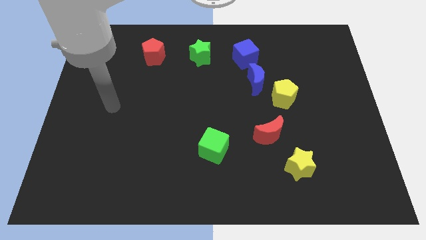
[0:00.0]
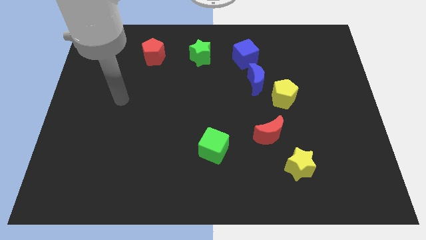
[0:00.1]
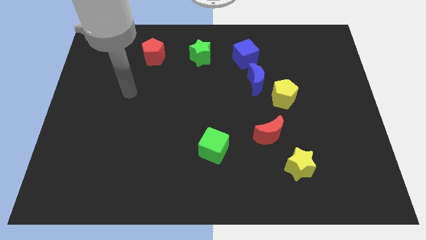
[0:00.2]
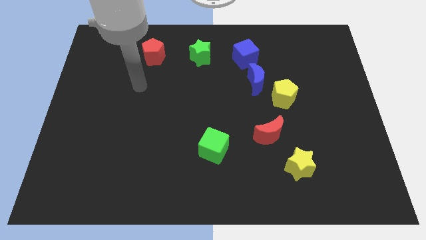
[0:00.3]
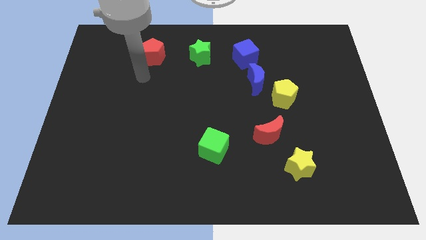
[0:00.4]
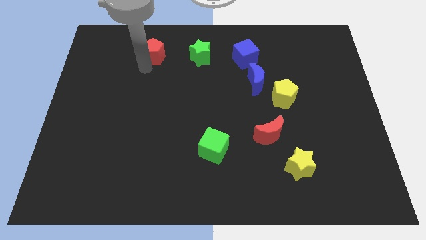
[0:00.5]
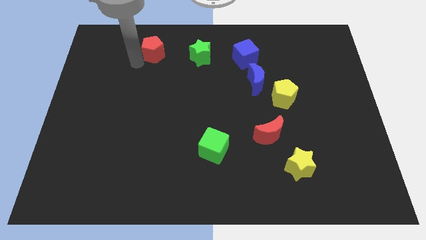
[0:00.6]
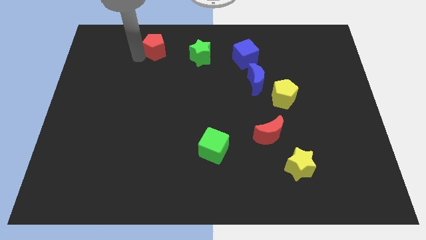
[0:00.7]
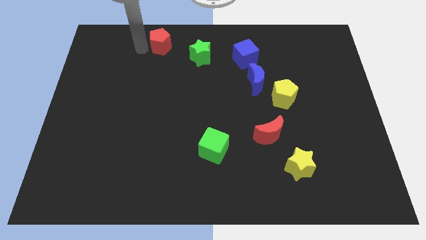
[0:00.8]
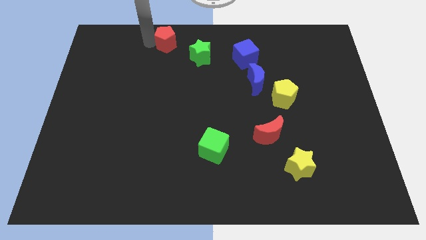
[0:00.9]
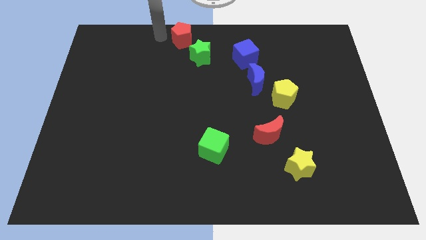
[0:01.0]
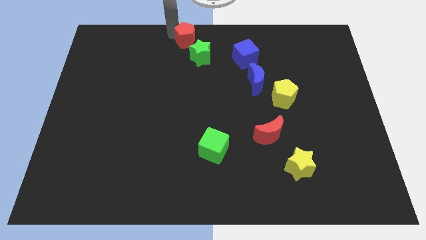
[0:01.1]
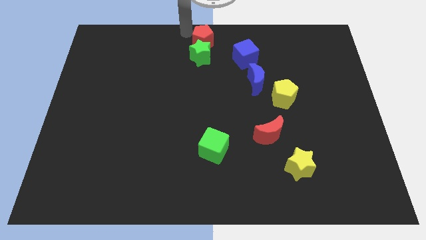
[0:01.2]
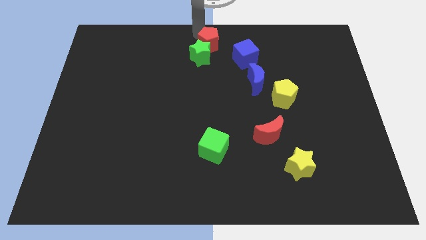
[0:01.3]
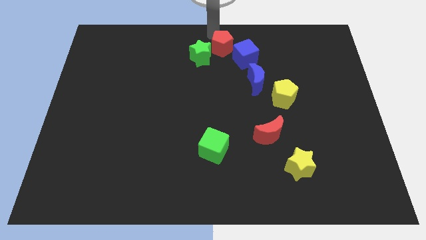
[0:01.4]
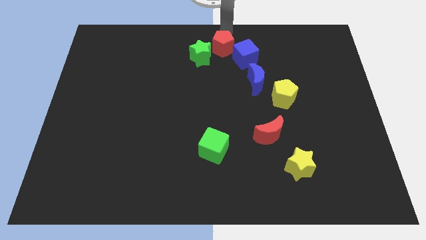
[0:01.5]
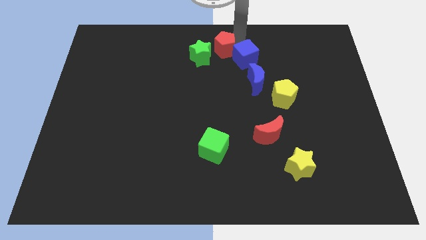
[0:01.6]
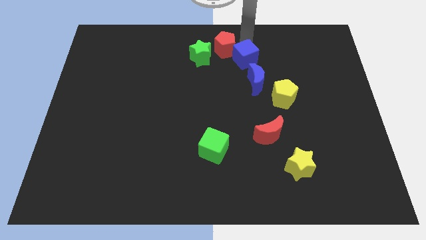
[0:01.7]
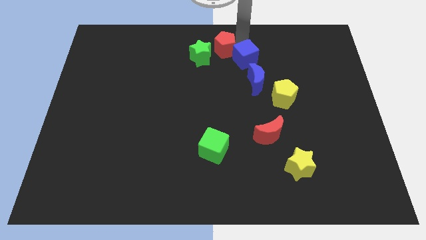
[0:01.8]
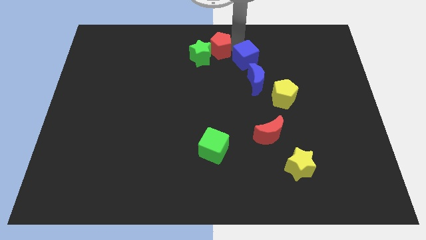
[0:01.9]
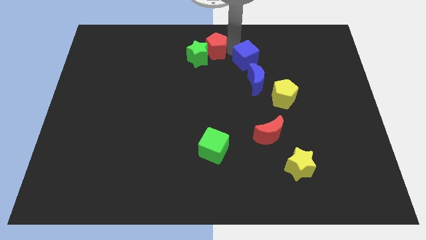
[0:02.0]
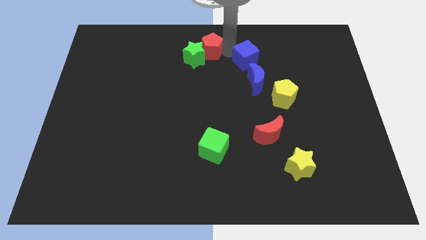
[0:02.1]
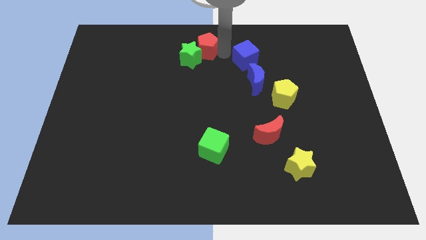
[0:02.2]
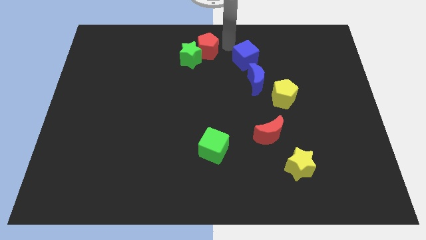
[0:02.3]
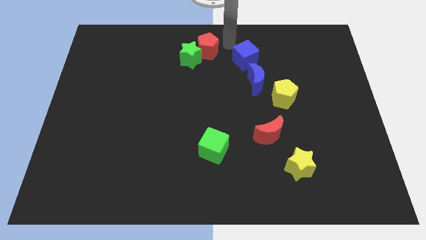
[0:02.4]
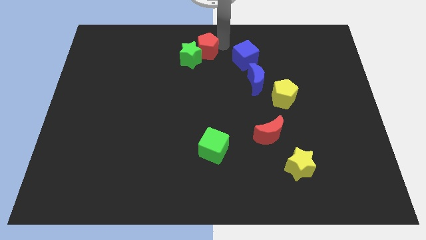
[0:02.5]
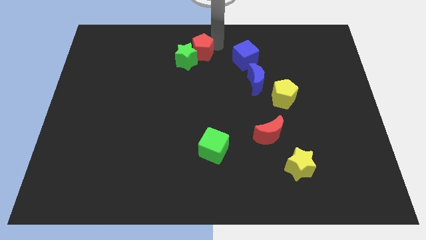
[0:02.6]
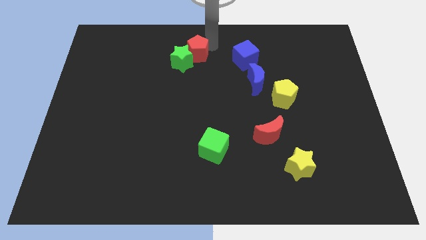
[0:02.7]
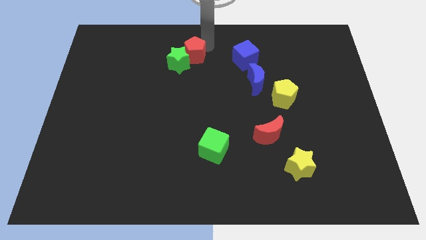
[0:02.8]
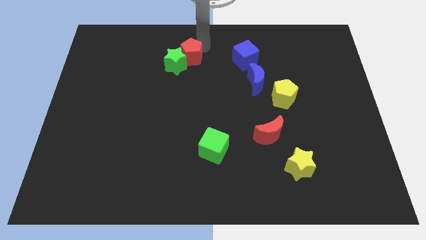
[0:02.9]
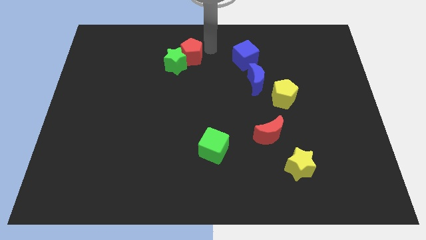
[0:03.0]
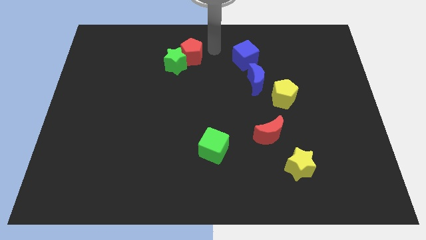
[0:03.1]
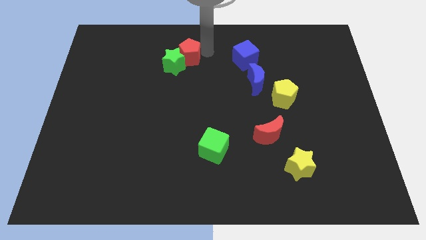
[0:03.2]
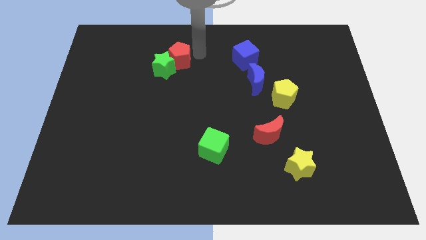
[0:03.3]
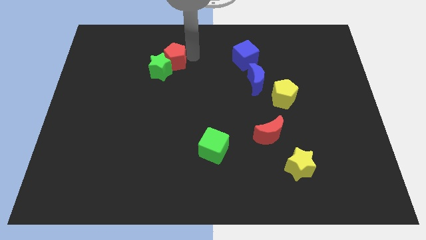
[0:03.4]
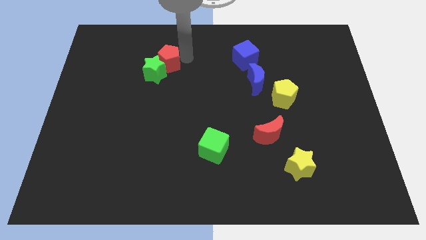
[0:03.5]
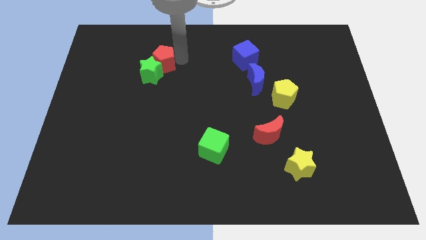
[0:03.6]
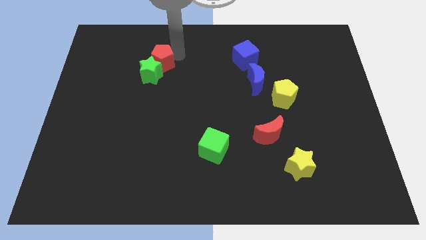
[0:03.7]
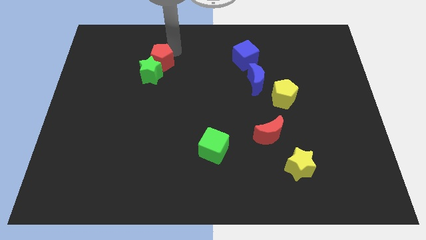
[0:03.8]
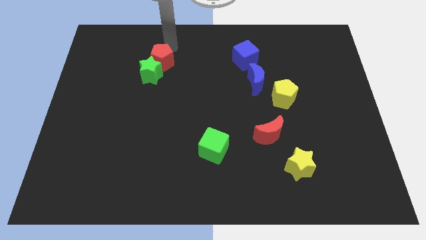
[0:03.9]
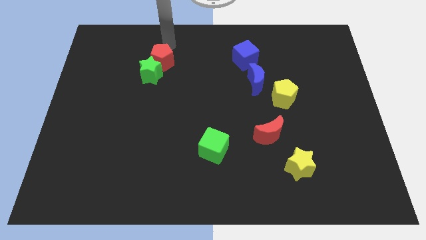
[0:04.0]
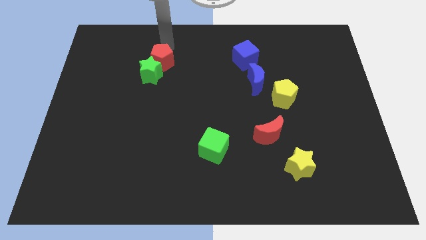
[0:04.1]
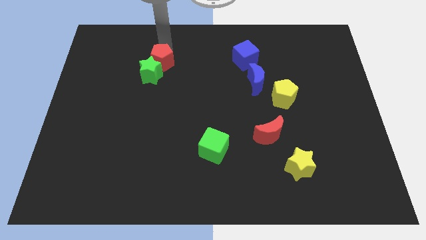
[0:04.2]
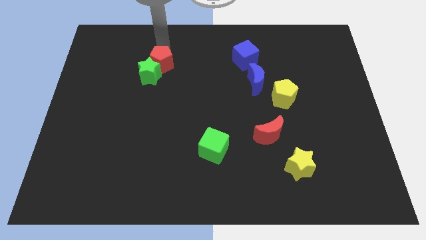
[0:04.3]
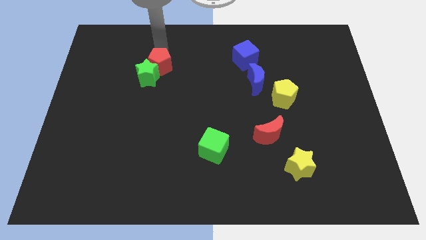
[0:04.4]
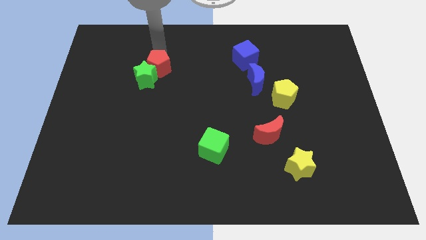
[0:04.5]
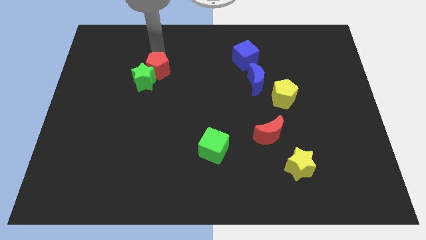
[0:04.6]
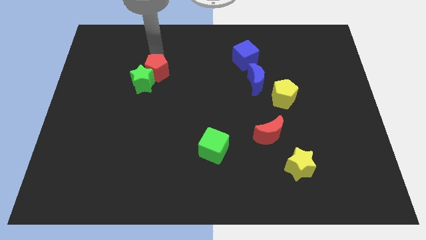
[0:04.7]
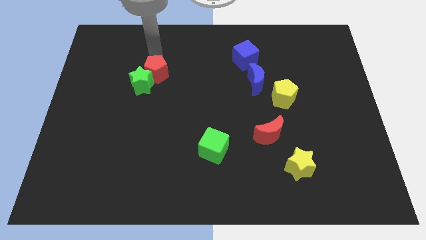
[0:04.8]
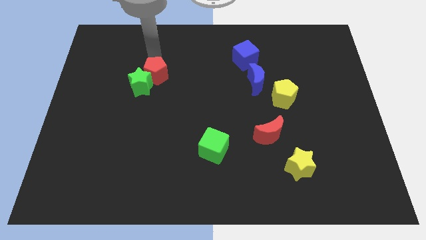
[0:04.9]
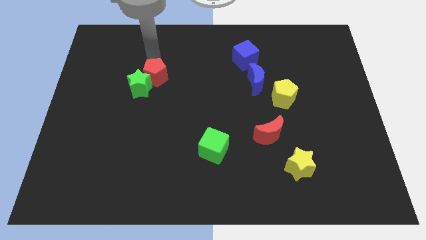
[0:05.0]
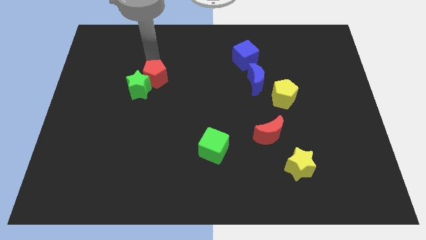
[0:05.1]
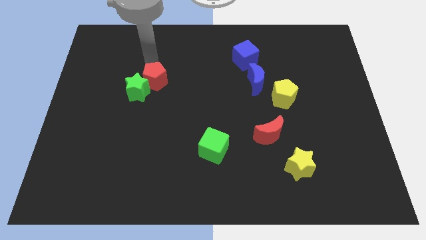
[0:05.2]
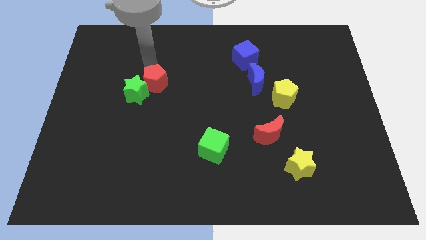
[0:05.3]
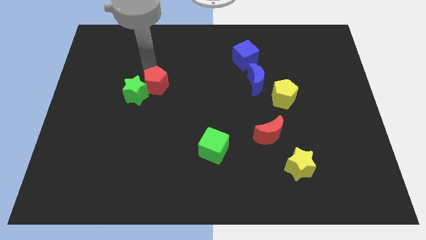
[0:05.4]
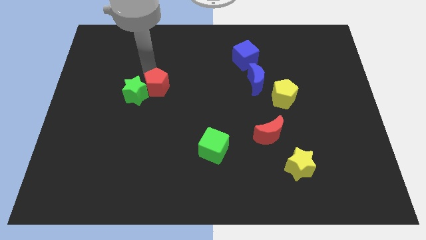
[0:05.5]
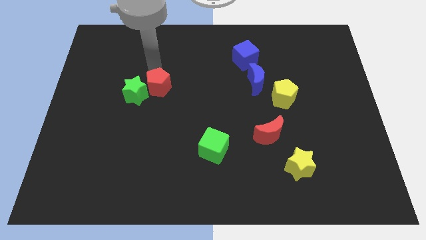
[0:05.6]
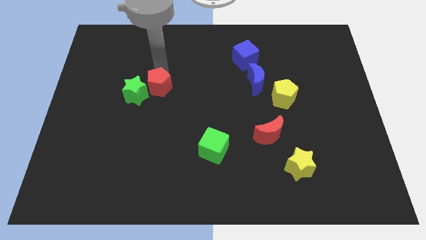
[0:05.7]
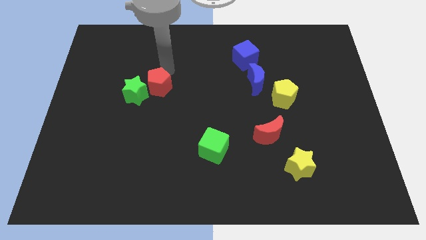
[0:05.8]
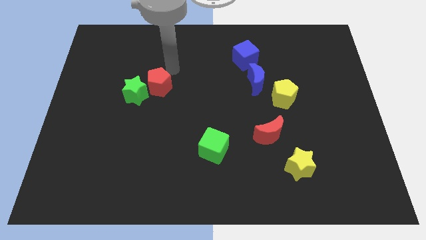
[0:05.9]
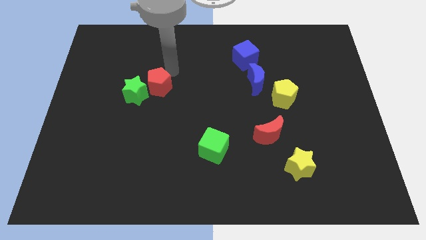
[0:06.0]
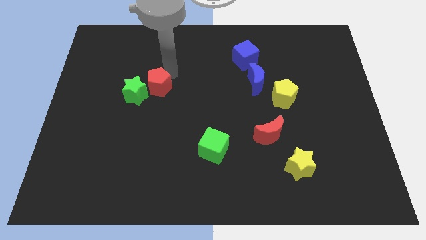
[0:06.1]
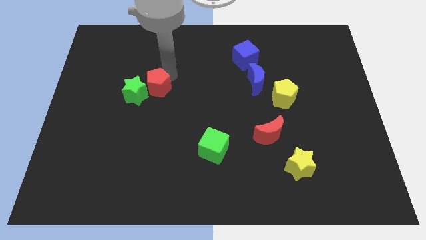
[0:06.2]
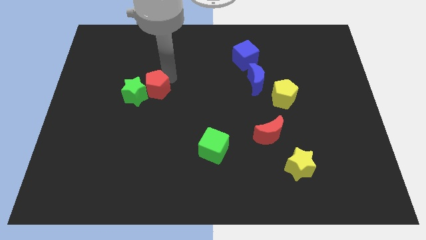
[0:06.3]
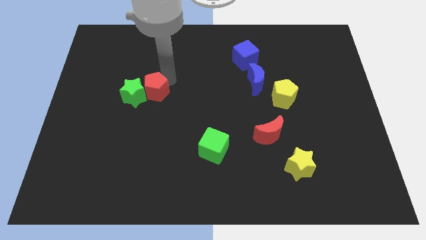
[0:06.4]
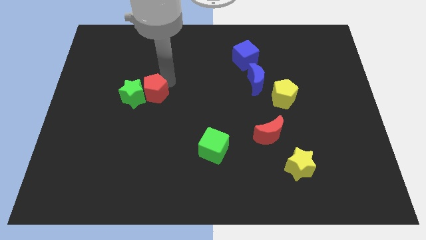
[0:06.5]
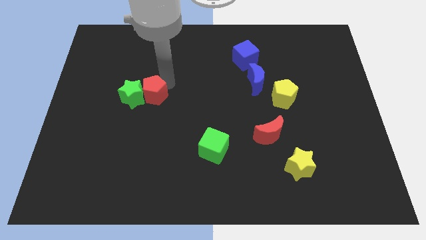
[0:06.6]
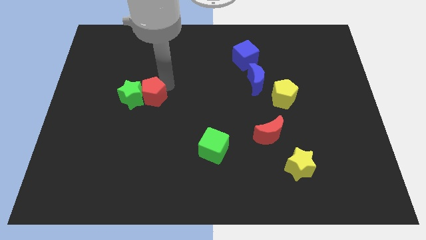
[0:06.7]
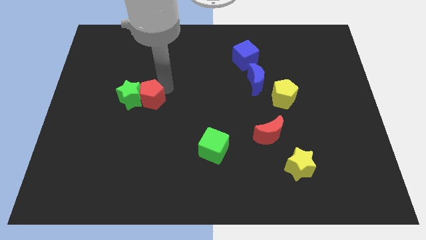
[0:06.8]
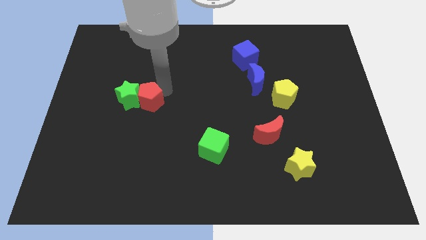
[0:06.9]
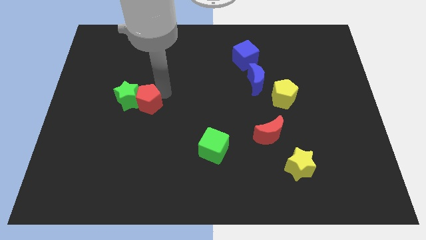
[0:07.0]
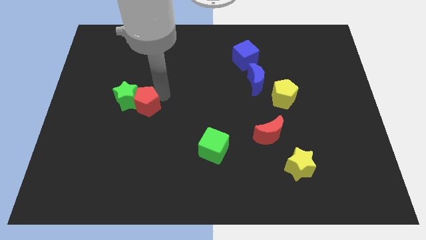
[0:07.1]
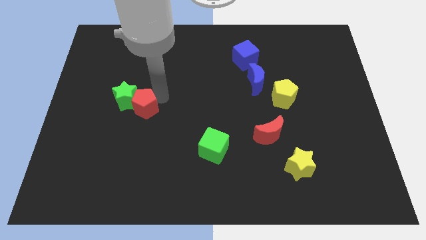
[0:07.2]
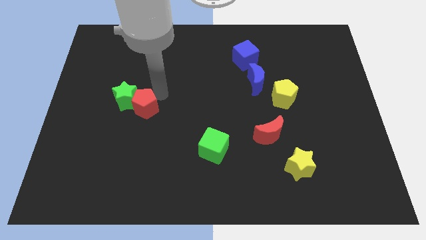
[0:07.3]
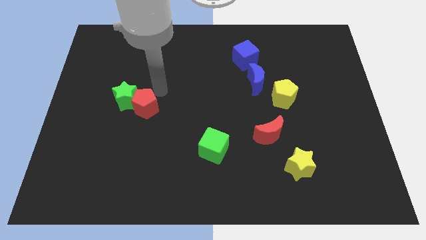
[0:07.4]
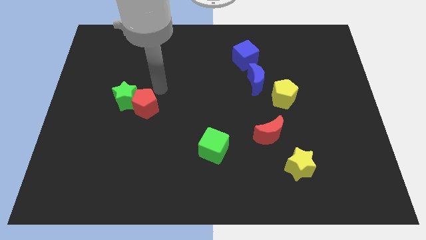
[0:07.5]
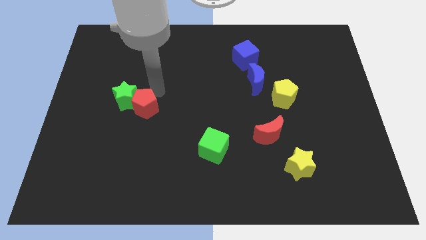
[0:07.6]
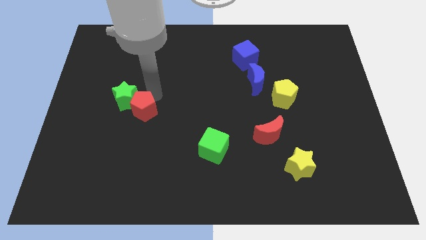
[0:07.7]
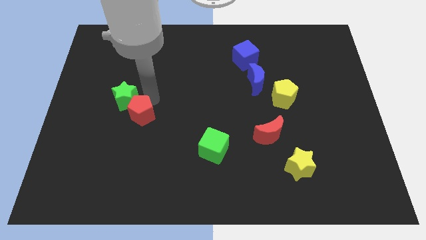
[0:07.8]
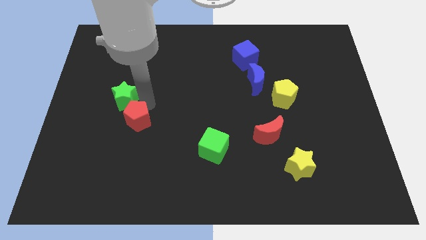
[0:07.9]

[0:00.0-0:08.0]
move the red pentagon downwards
